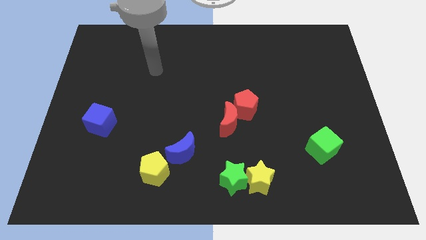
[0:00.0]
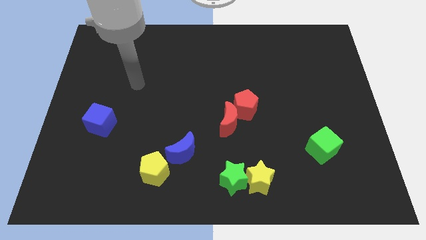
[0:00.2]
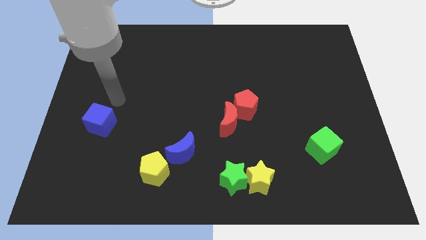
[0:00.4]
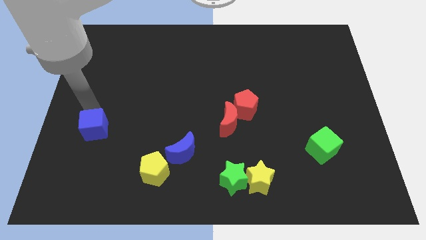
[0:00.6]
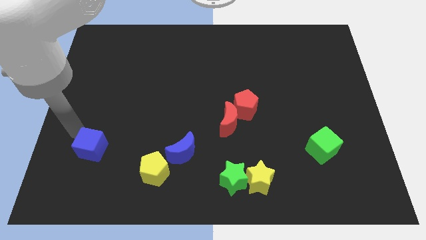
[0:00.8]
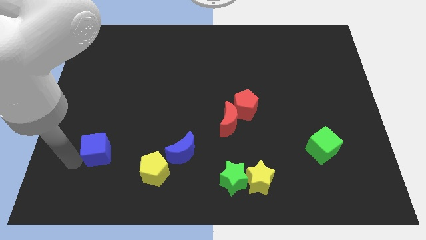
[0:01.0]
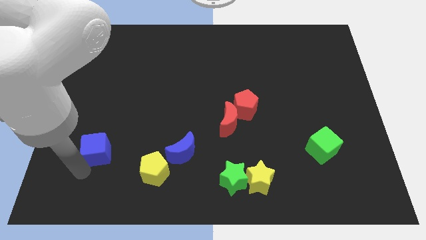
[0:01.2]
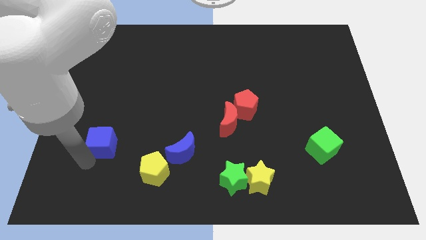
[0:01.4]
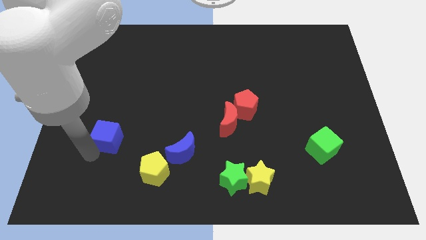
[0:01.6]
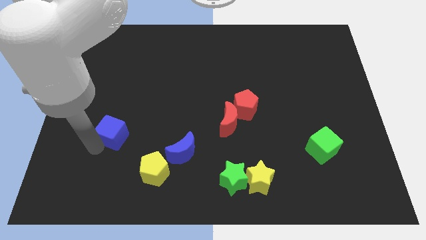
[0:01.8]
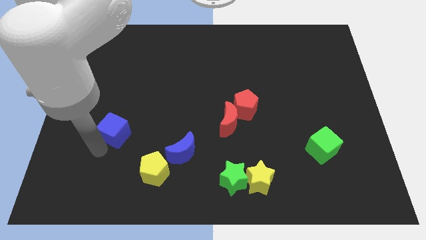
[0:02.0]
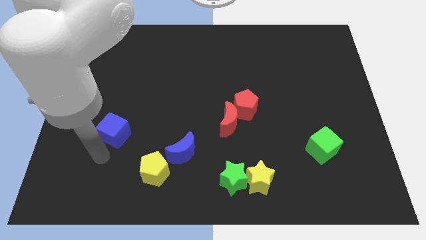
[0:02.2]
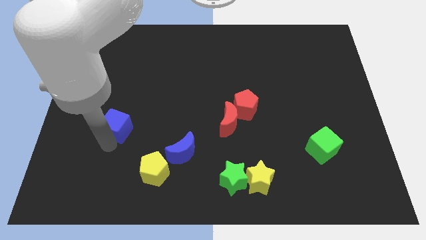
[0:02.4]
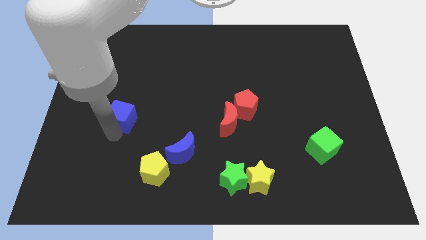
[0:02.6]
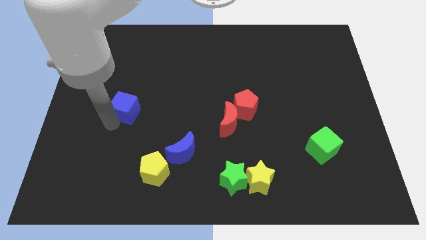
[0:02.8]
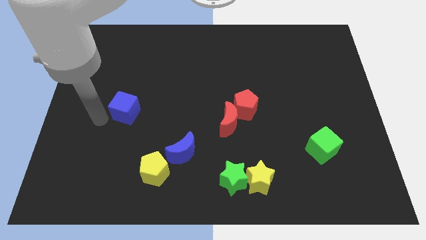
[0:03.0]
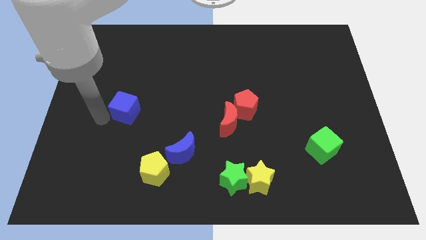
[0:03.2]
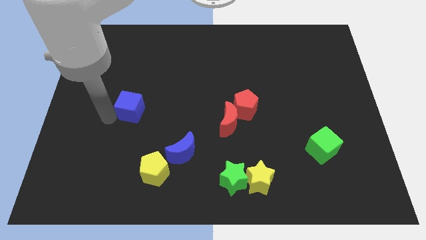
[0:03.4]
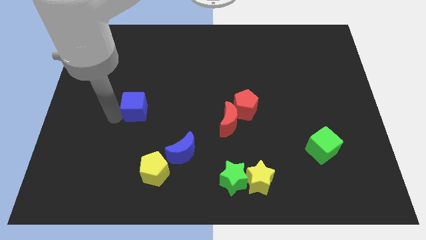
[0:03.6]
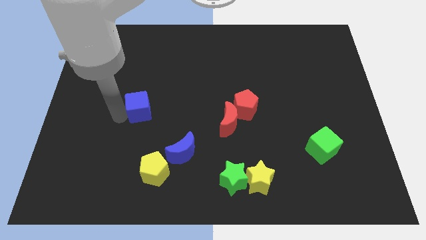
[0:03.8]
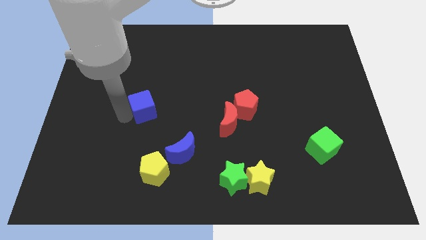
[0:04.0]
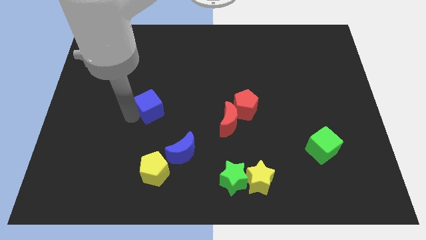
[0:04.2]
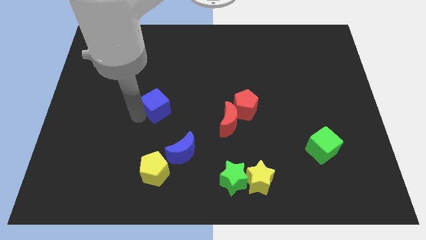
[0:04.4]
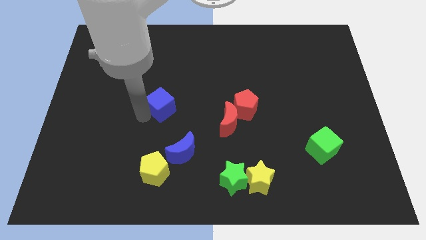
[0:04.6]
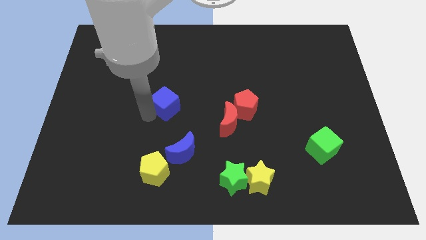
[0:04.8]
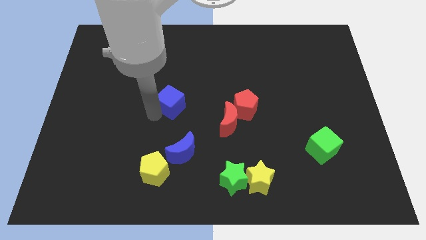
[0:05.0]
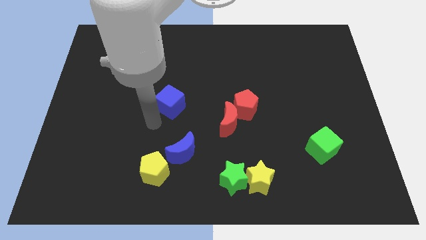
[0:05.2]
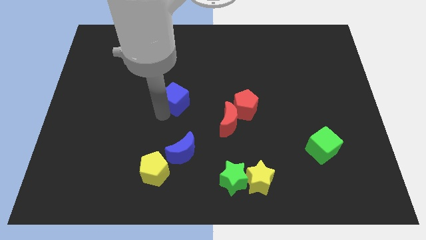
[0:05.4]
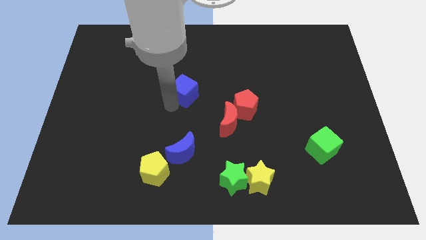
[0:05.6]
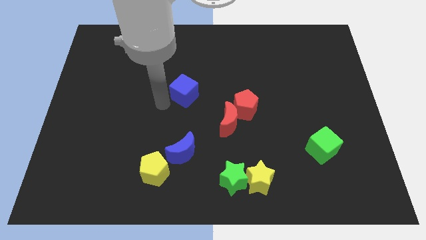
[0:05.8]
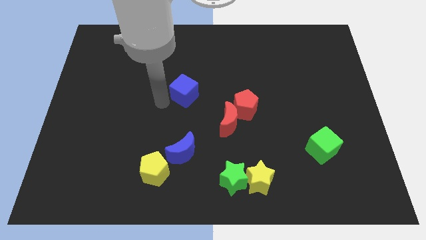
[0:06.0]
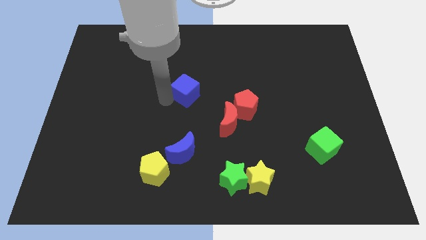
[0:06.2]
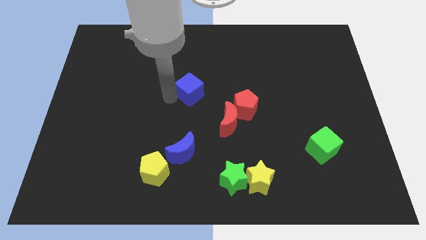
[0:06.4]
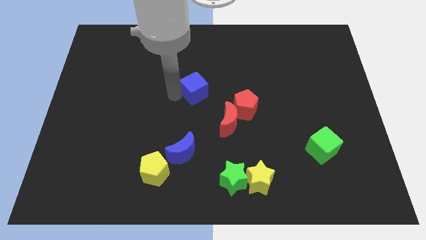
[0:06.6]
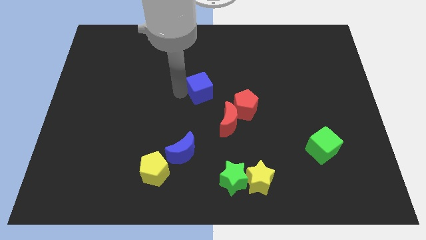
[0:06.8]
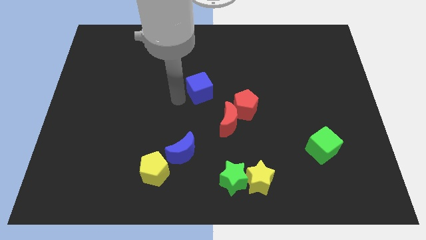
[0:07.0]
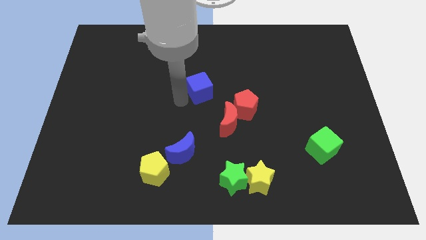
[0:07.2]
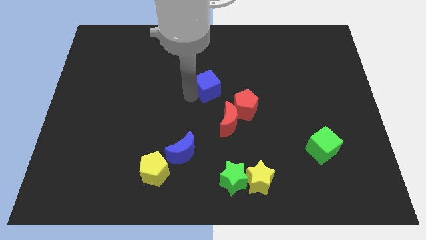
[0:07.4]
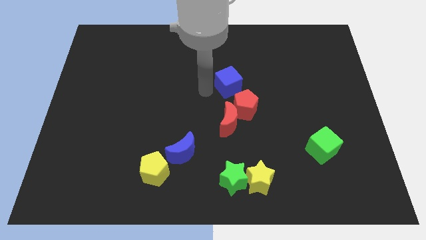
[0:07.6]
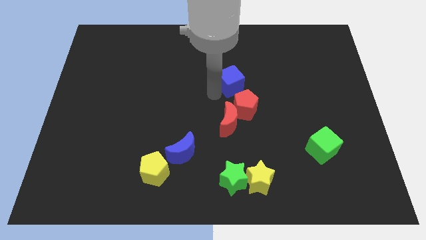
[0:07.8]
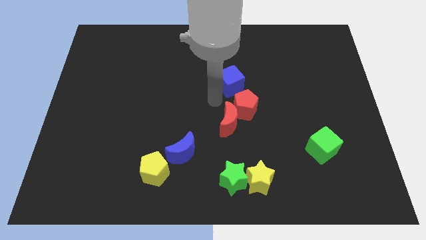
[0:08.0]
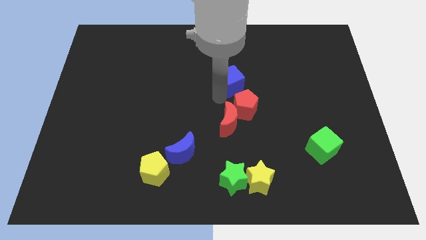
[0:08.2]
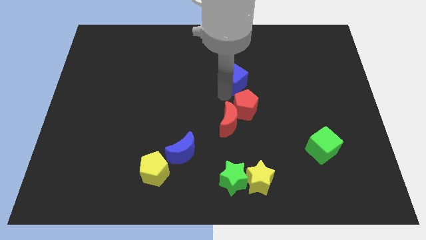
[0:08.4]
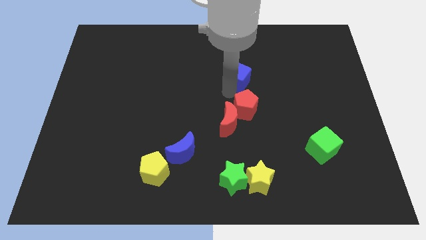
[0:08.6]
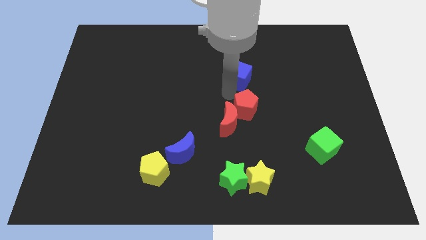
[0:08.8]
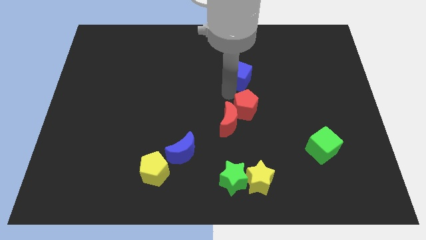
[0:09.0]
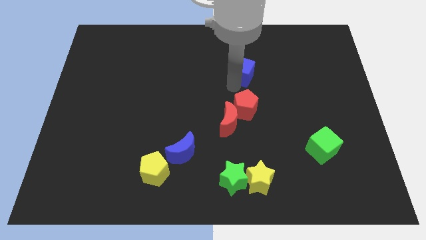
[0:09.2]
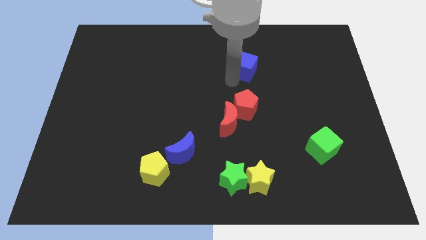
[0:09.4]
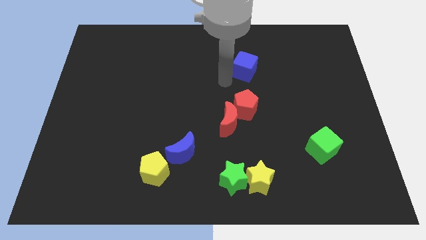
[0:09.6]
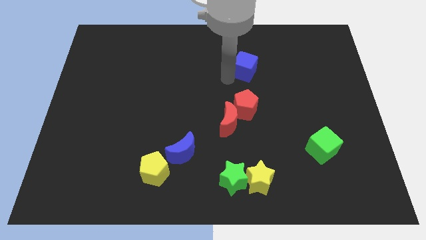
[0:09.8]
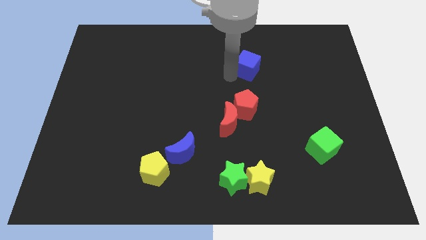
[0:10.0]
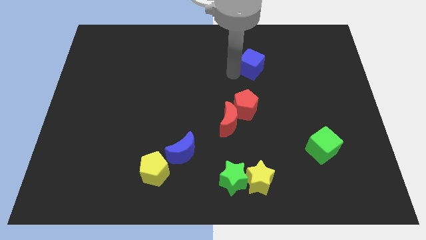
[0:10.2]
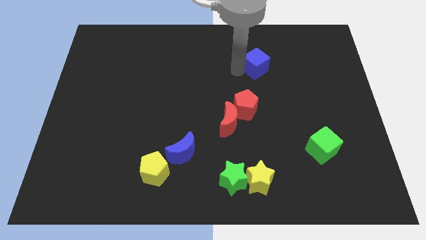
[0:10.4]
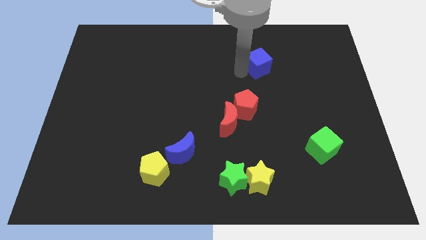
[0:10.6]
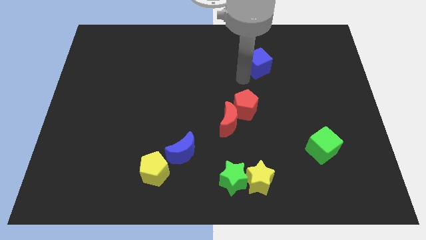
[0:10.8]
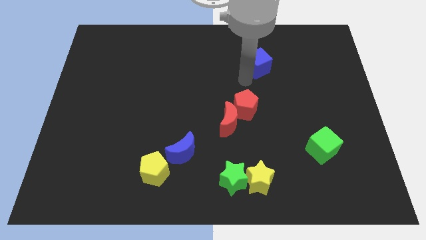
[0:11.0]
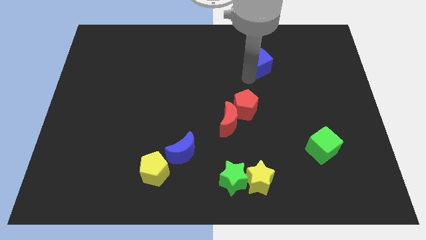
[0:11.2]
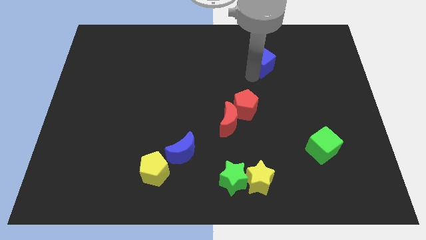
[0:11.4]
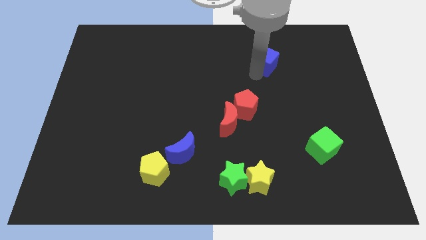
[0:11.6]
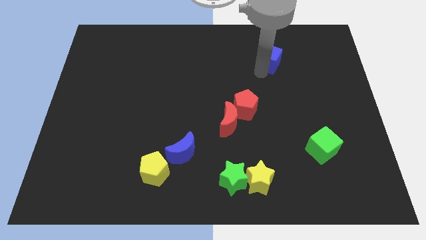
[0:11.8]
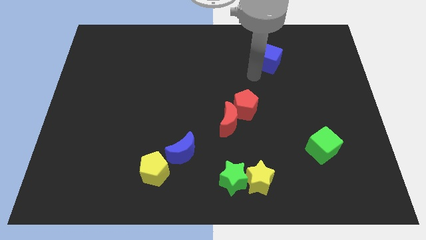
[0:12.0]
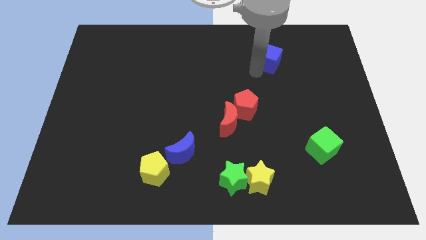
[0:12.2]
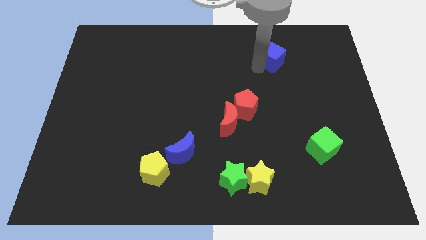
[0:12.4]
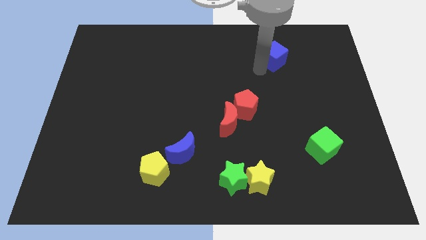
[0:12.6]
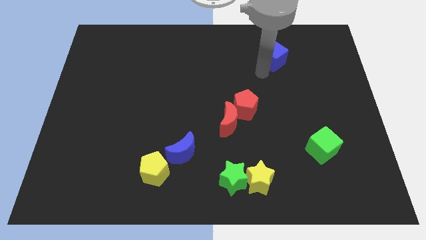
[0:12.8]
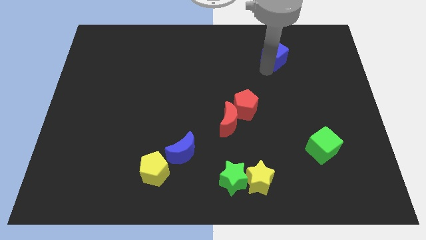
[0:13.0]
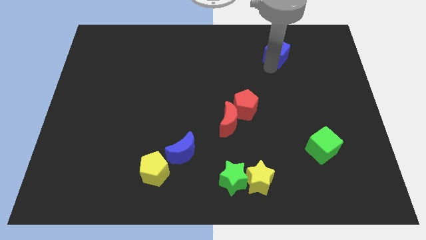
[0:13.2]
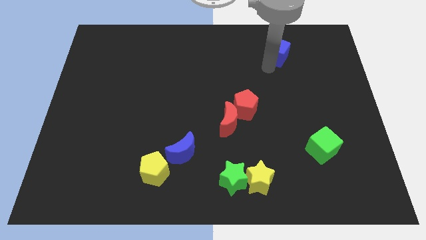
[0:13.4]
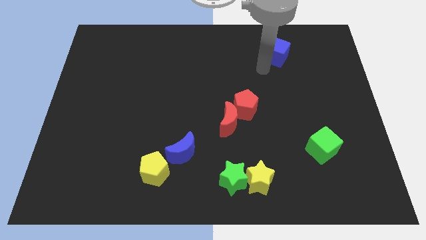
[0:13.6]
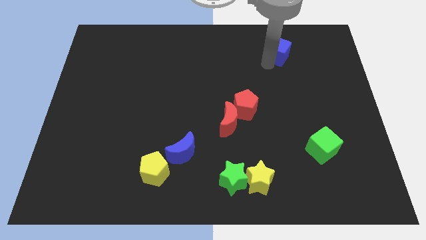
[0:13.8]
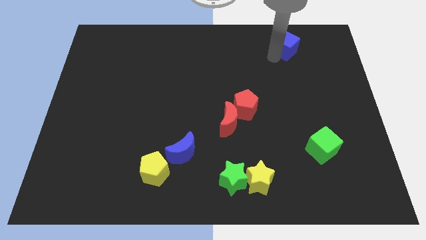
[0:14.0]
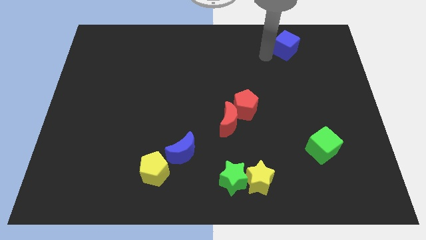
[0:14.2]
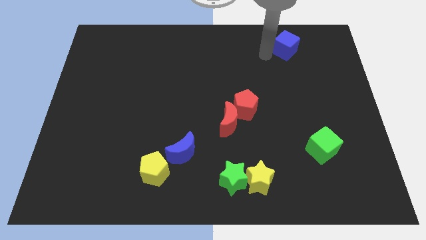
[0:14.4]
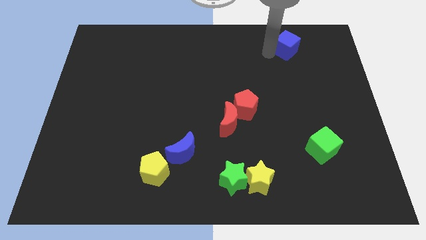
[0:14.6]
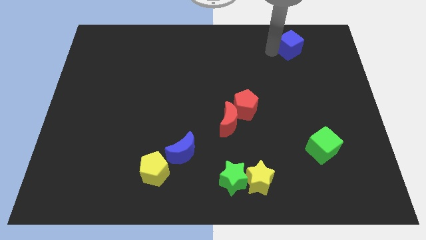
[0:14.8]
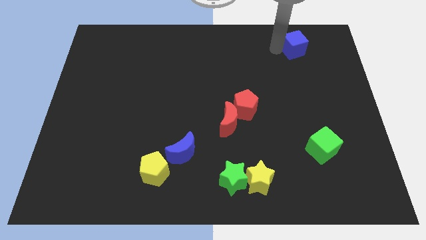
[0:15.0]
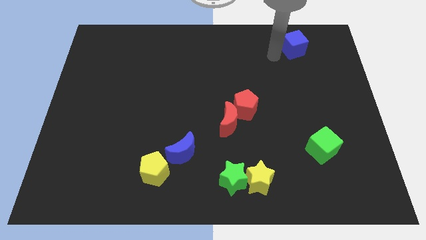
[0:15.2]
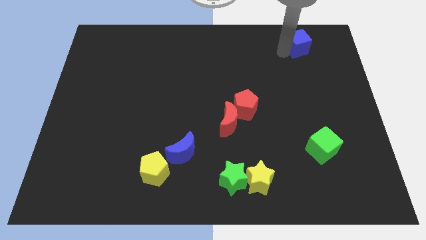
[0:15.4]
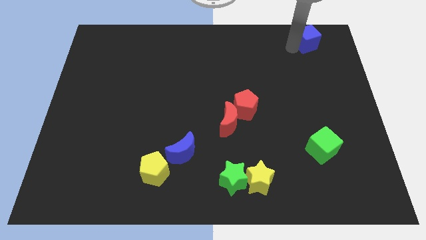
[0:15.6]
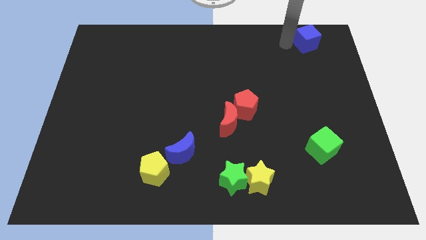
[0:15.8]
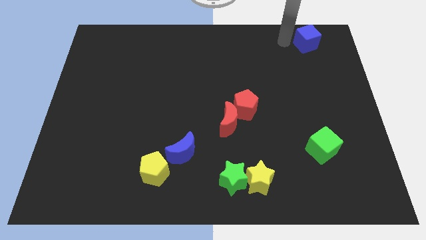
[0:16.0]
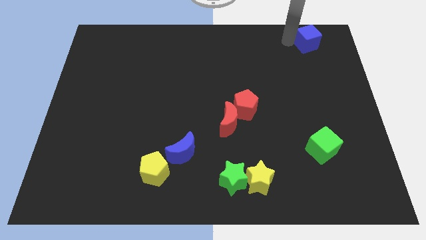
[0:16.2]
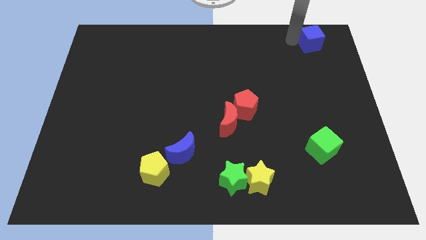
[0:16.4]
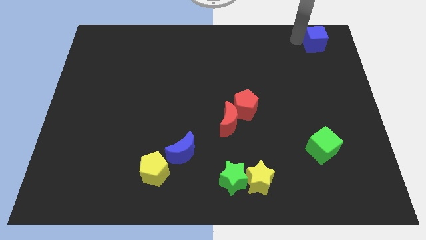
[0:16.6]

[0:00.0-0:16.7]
slide the blue cube to the top right
